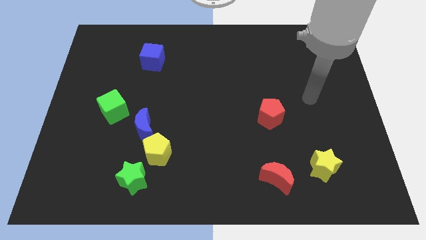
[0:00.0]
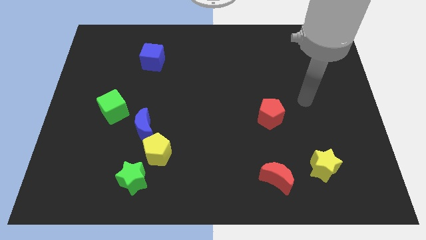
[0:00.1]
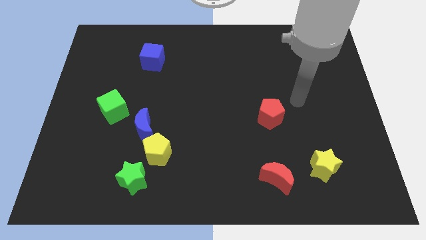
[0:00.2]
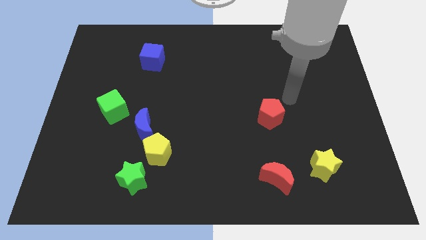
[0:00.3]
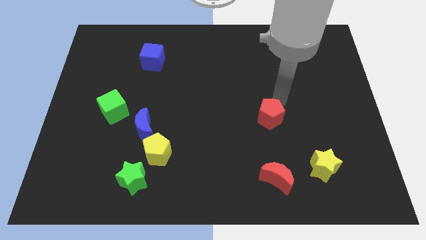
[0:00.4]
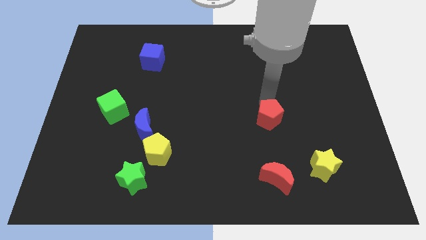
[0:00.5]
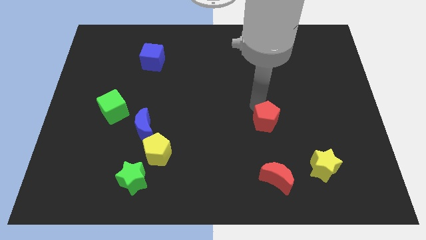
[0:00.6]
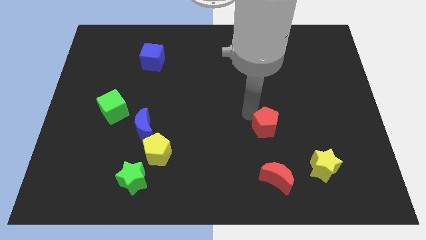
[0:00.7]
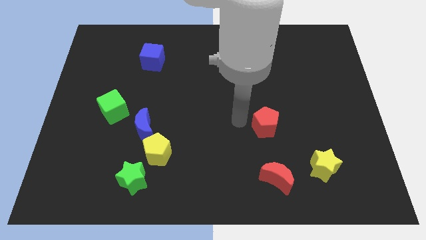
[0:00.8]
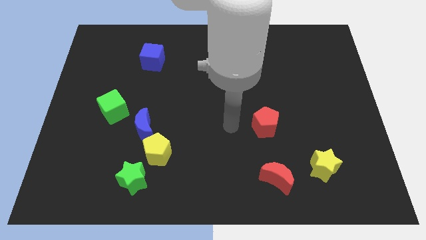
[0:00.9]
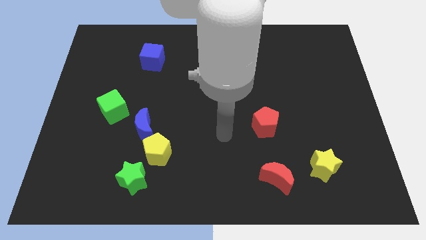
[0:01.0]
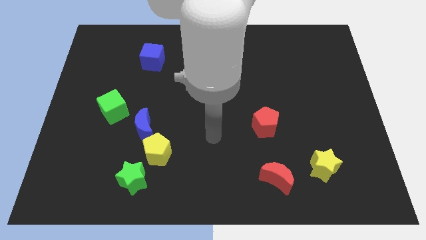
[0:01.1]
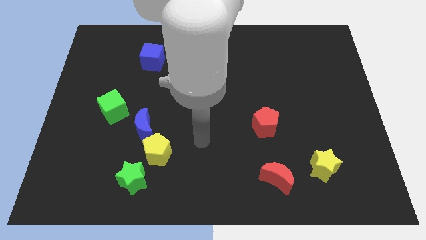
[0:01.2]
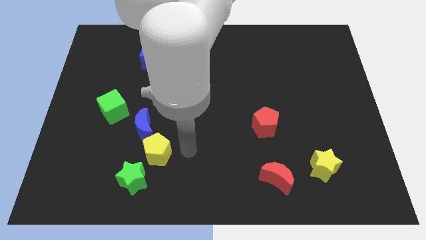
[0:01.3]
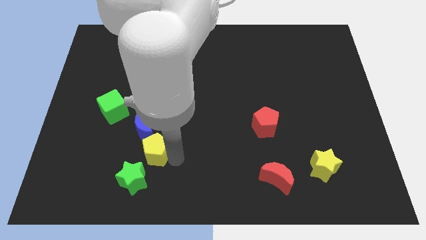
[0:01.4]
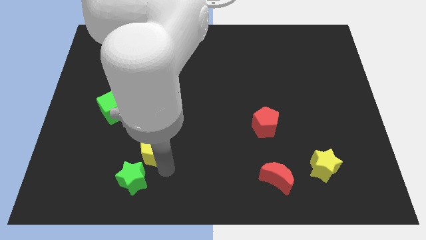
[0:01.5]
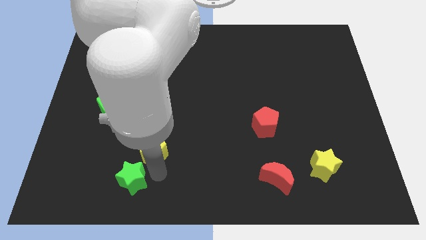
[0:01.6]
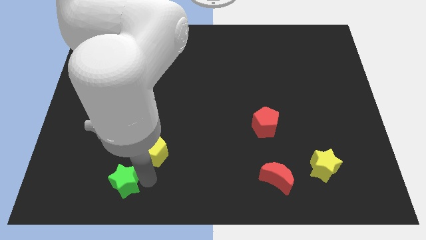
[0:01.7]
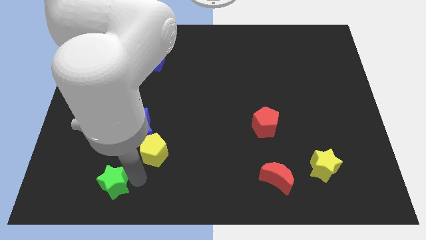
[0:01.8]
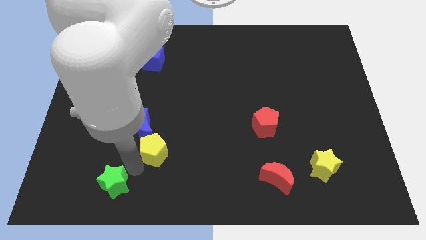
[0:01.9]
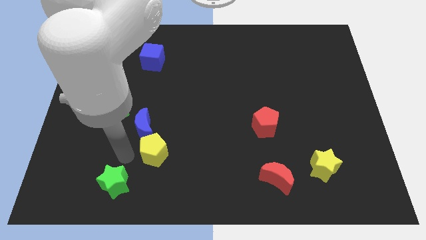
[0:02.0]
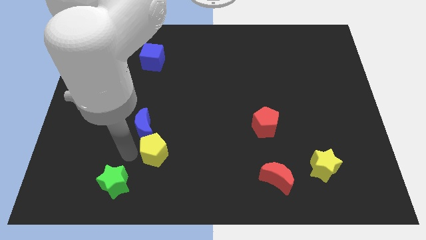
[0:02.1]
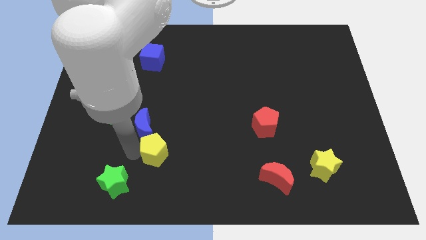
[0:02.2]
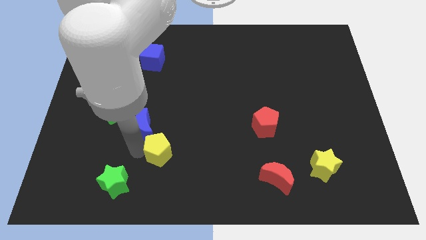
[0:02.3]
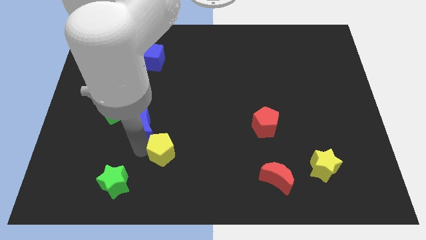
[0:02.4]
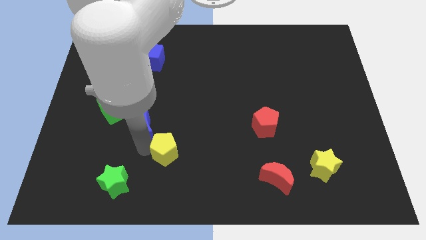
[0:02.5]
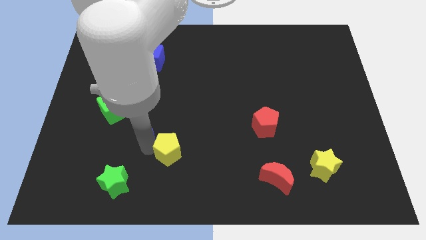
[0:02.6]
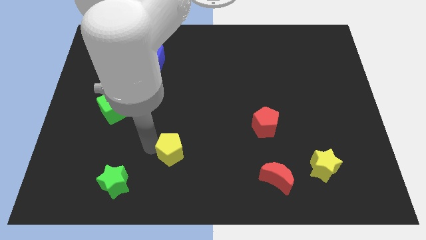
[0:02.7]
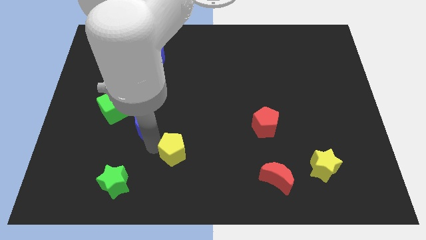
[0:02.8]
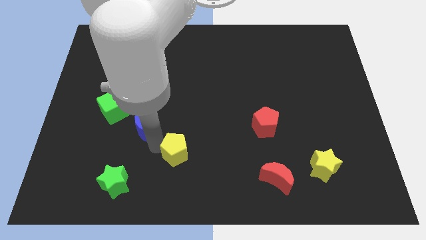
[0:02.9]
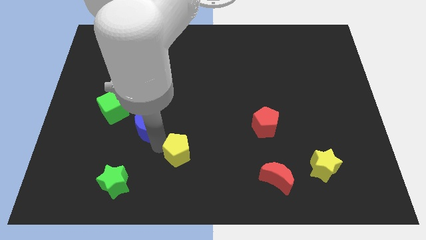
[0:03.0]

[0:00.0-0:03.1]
pull the yellow pentagon apart from the blue moon and green star

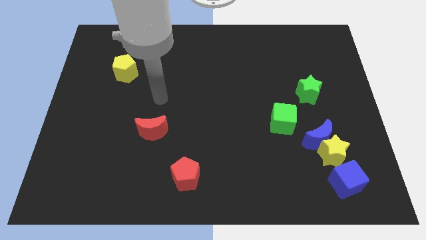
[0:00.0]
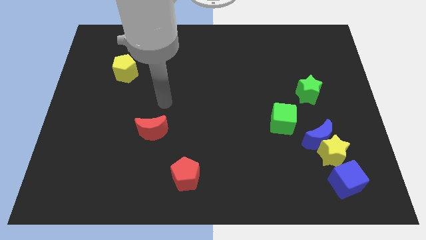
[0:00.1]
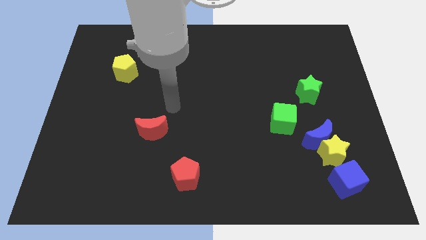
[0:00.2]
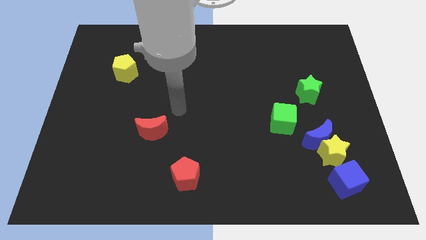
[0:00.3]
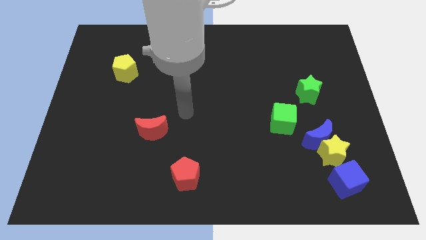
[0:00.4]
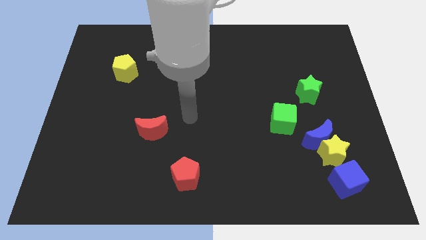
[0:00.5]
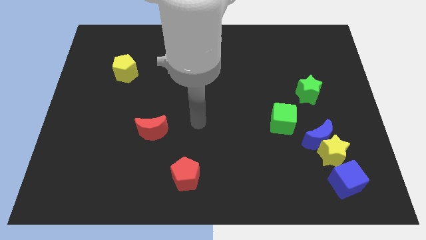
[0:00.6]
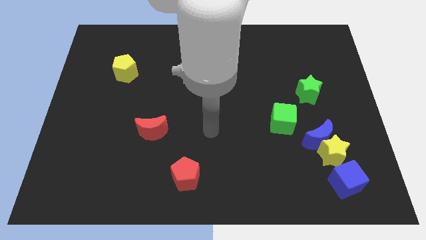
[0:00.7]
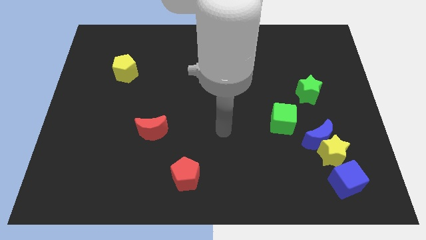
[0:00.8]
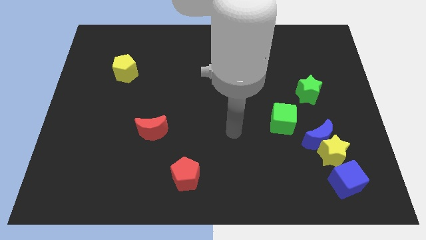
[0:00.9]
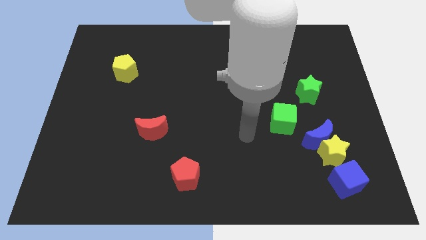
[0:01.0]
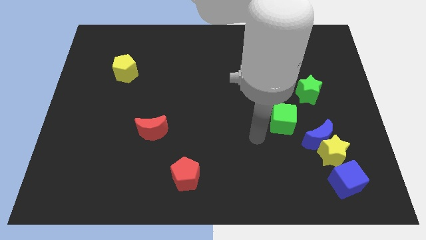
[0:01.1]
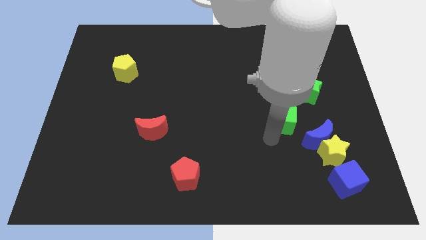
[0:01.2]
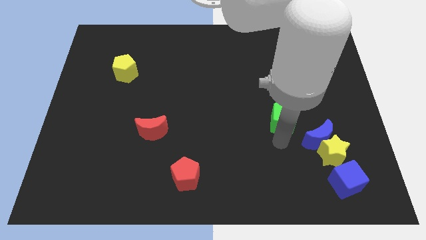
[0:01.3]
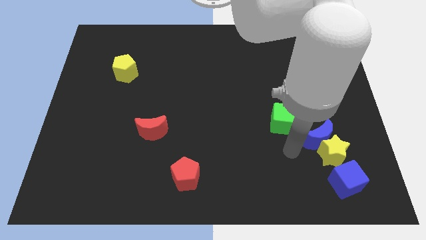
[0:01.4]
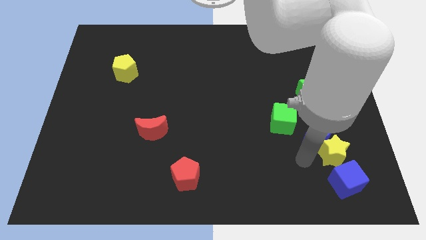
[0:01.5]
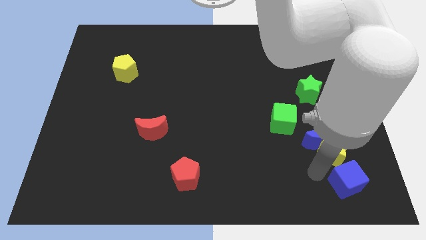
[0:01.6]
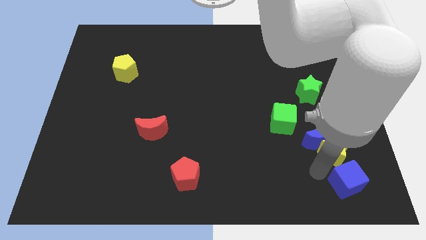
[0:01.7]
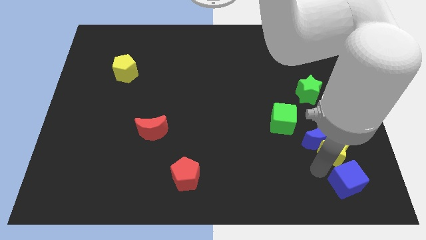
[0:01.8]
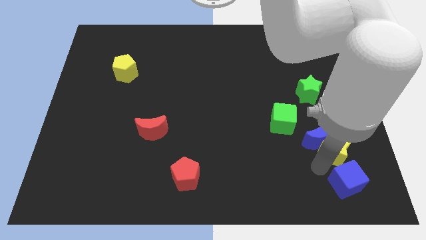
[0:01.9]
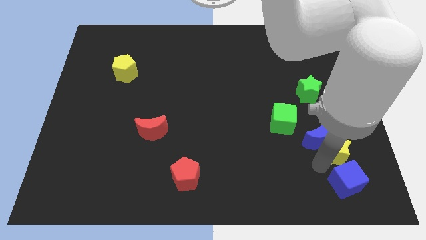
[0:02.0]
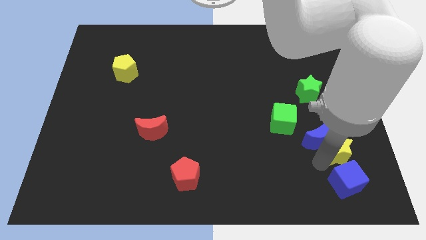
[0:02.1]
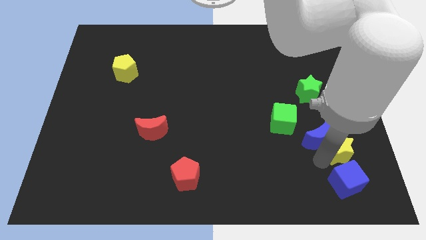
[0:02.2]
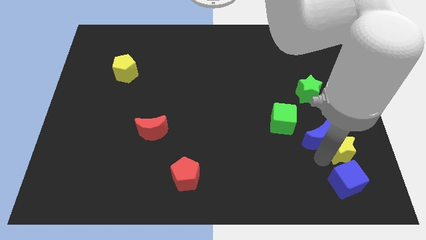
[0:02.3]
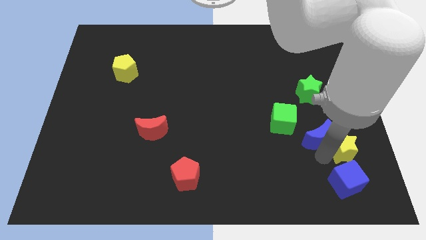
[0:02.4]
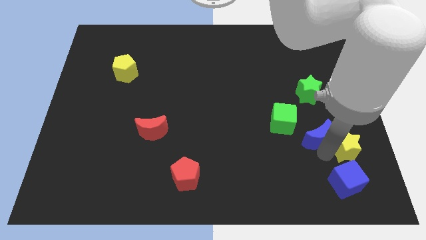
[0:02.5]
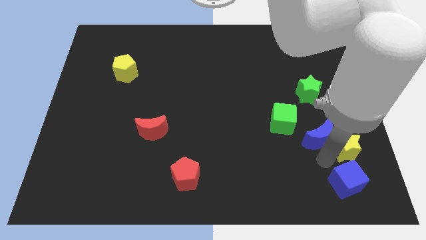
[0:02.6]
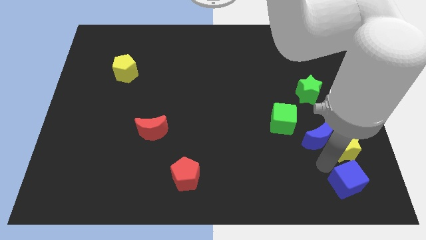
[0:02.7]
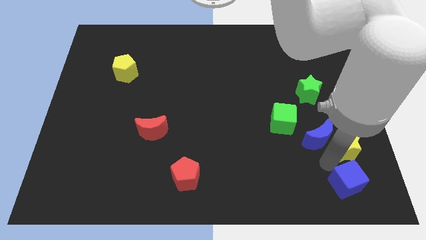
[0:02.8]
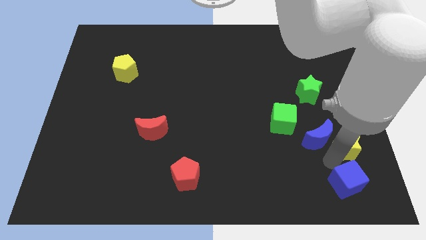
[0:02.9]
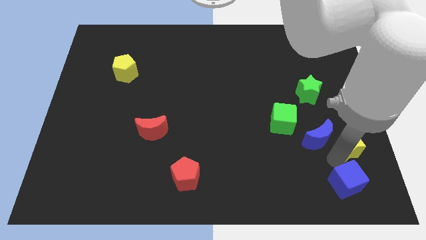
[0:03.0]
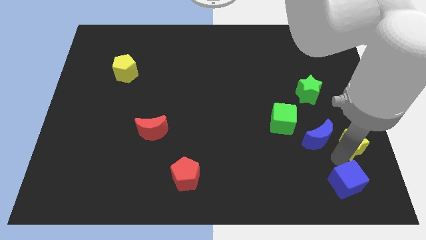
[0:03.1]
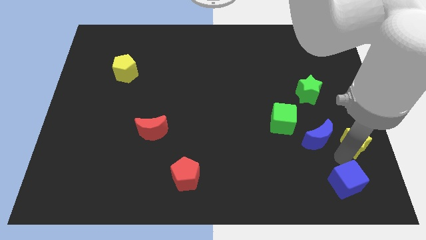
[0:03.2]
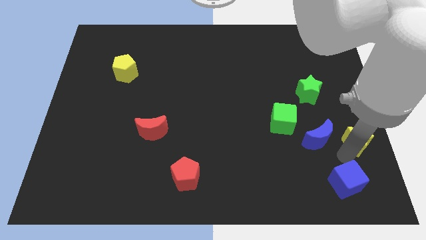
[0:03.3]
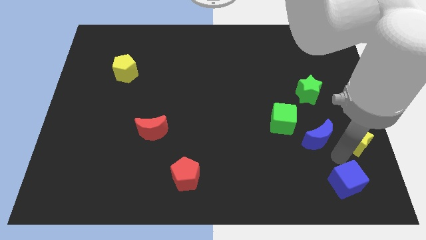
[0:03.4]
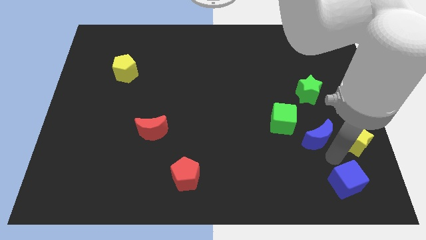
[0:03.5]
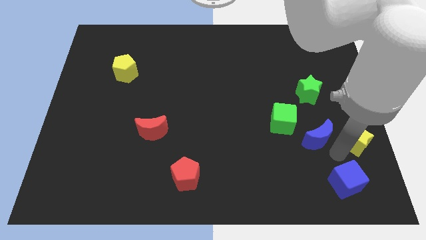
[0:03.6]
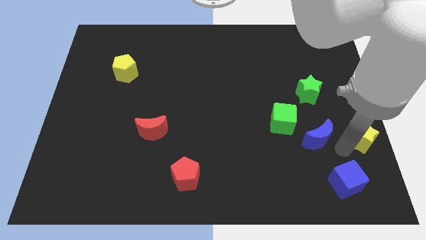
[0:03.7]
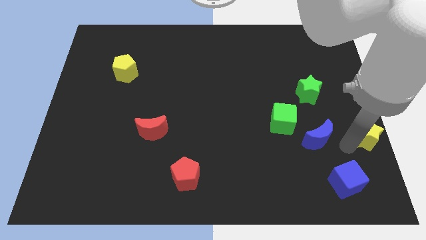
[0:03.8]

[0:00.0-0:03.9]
pull the yellow star apart from the blue moon and blue cube

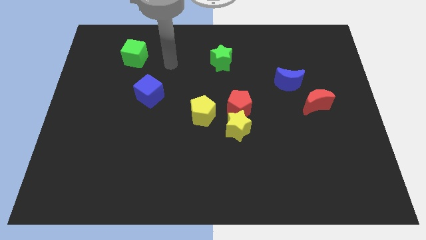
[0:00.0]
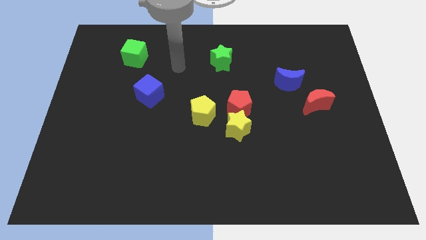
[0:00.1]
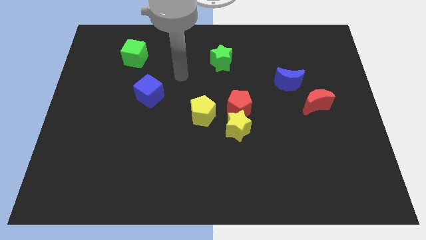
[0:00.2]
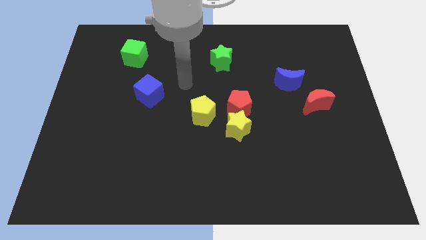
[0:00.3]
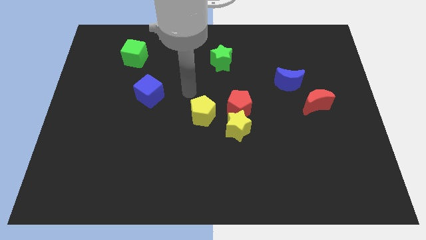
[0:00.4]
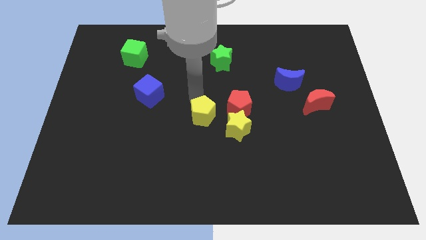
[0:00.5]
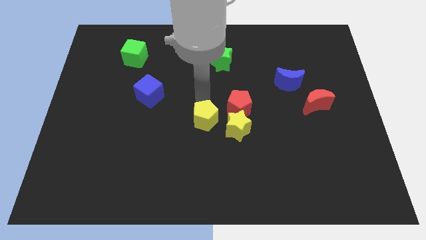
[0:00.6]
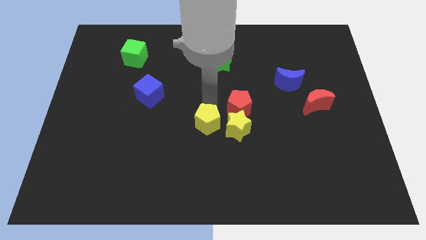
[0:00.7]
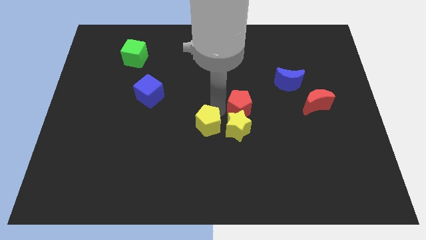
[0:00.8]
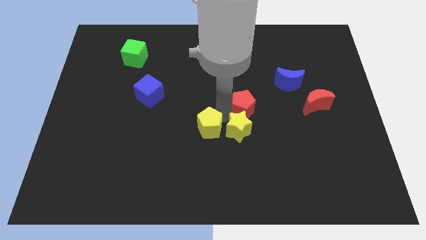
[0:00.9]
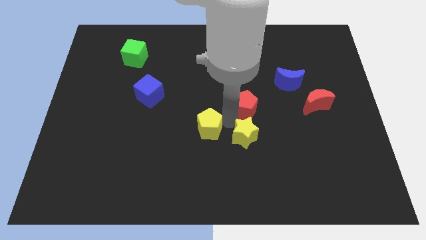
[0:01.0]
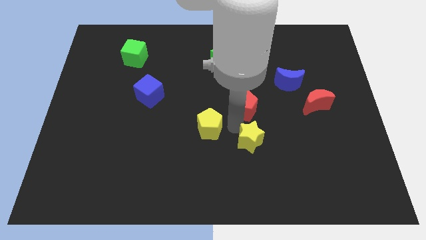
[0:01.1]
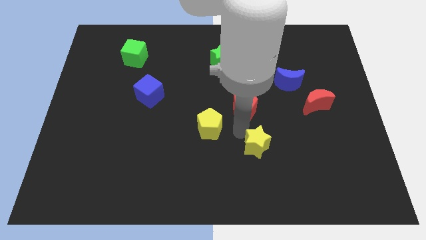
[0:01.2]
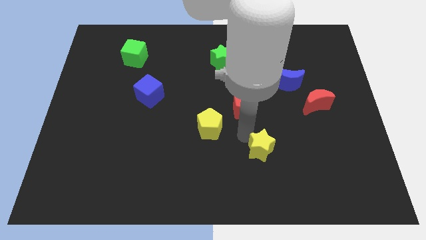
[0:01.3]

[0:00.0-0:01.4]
move the yellow star away from the red pentagon and yellow pentagon

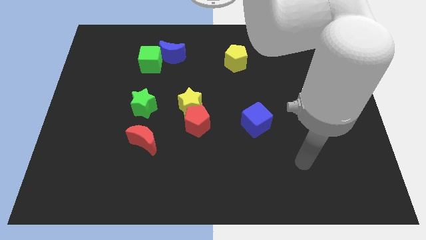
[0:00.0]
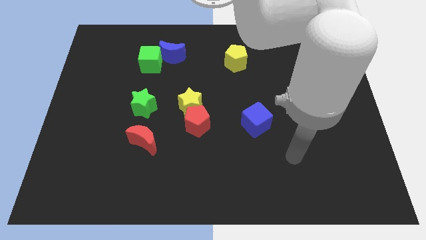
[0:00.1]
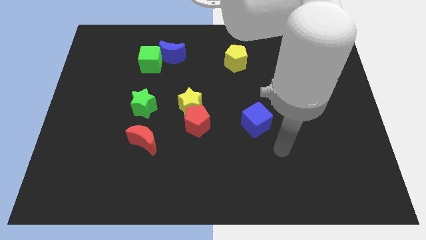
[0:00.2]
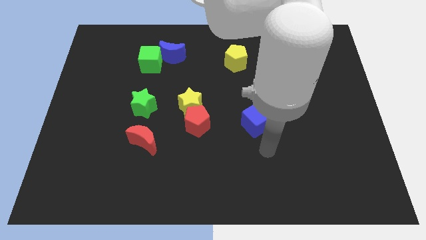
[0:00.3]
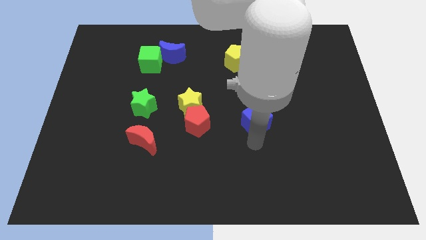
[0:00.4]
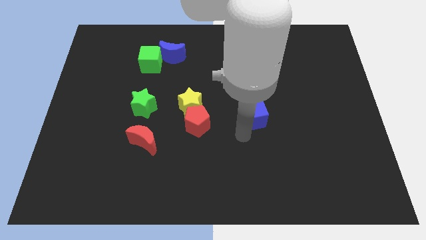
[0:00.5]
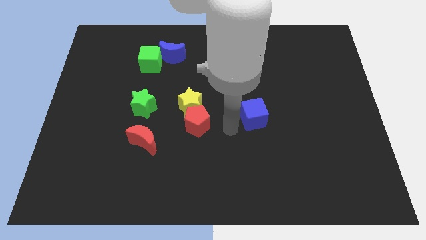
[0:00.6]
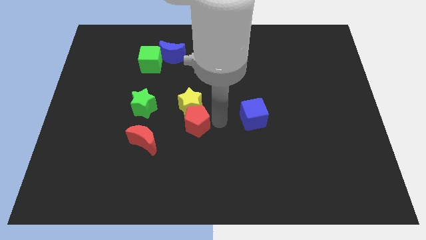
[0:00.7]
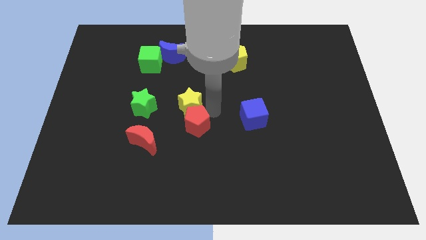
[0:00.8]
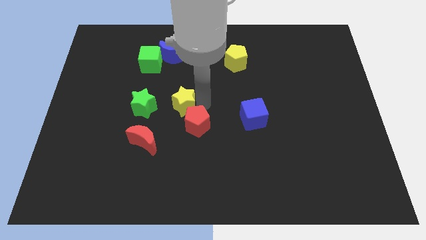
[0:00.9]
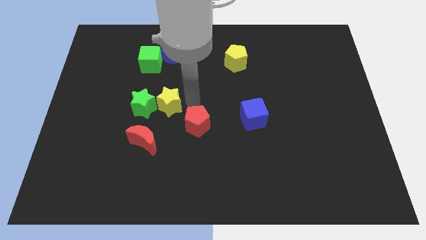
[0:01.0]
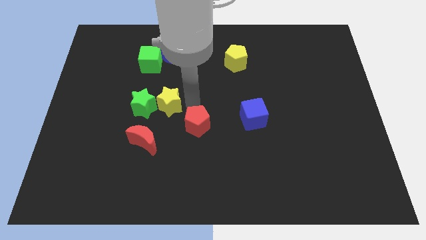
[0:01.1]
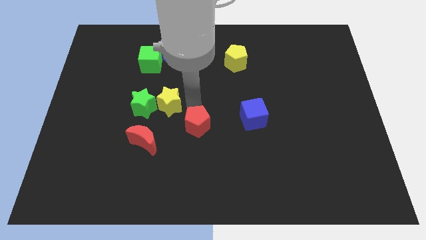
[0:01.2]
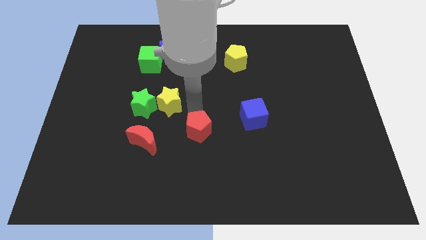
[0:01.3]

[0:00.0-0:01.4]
separate the red pentagon from the yellow star
